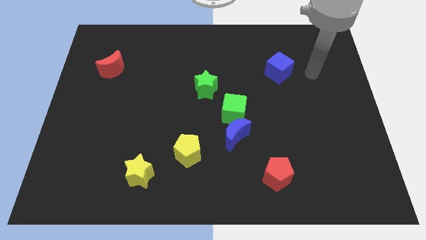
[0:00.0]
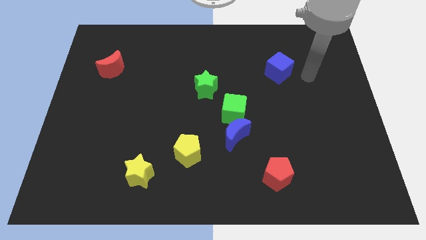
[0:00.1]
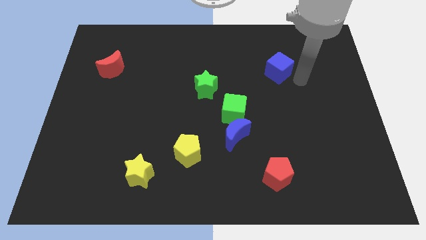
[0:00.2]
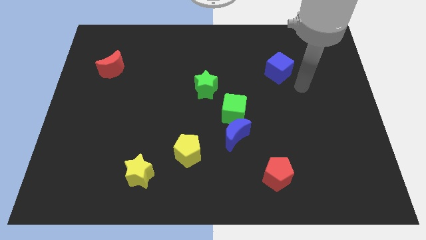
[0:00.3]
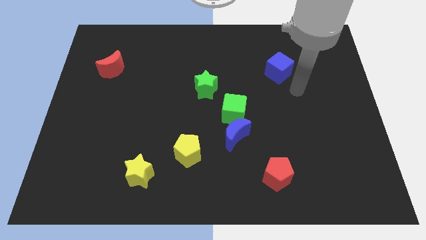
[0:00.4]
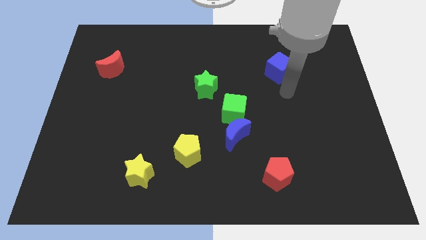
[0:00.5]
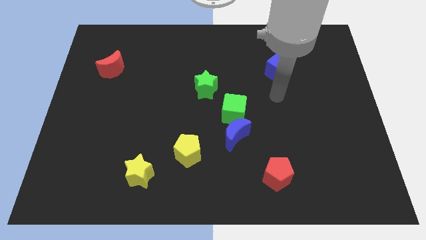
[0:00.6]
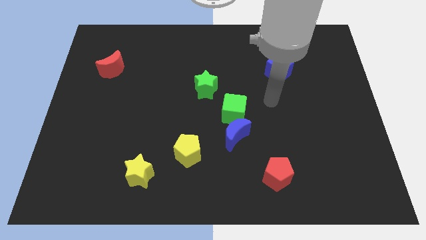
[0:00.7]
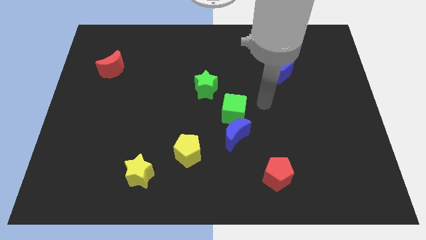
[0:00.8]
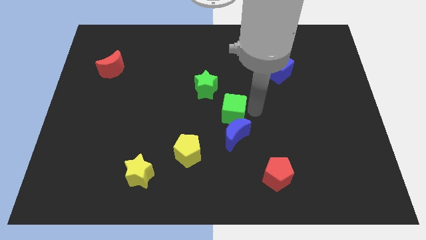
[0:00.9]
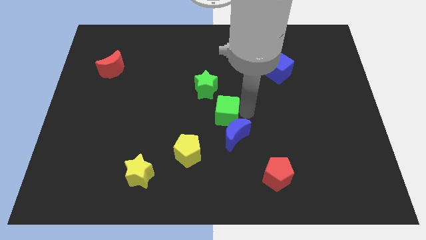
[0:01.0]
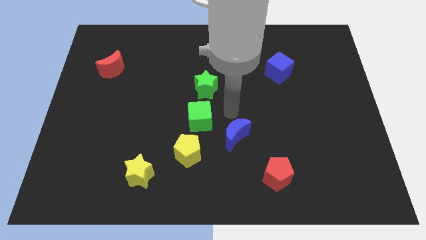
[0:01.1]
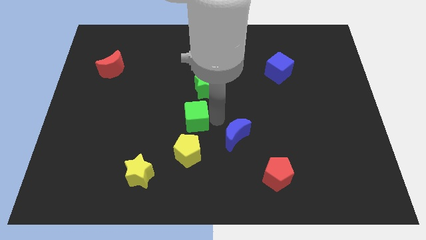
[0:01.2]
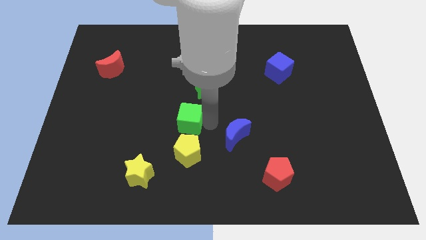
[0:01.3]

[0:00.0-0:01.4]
pull the blue moon apart from the green cube

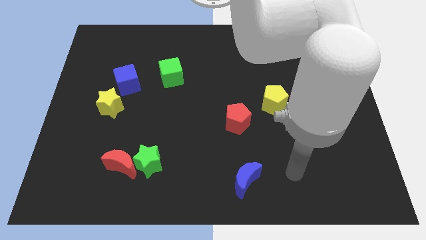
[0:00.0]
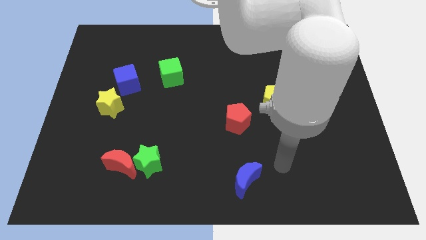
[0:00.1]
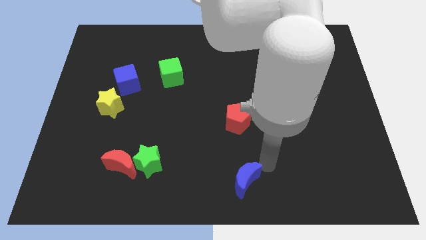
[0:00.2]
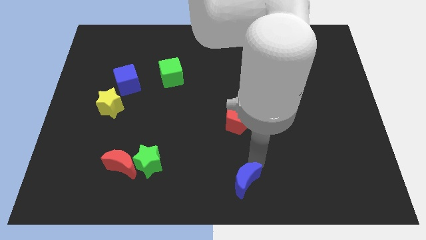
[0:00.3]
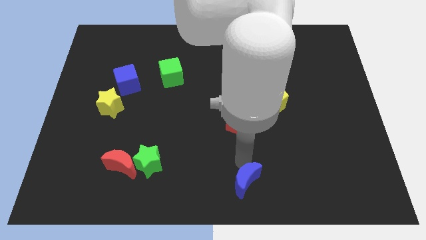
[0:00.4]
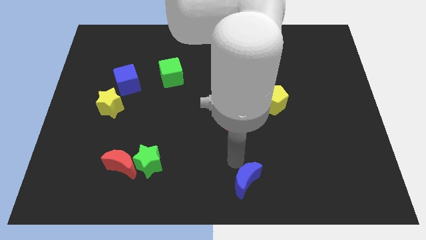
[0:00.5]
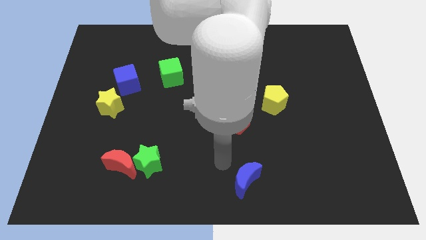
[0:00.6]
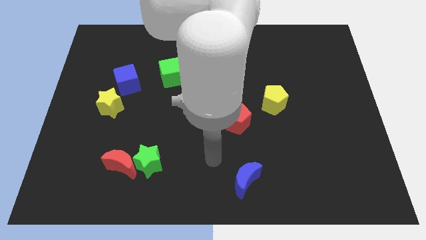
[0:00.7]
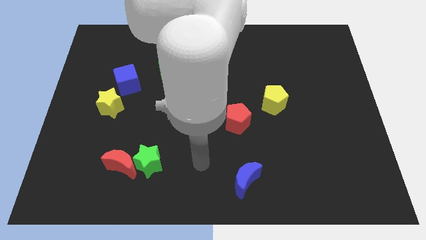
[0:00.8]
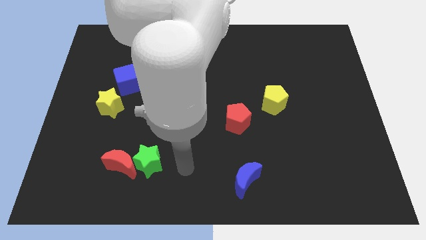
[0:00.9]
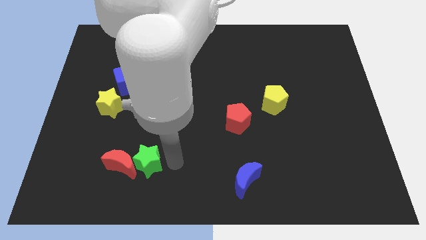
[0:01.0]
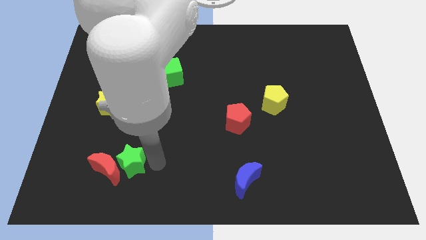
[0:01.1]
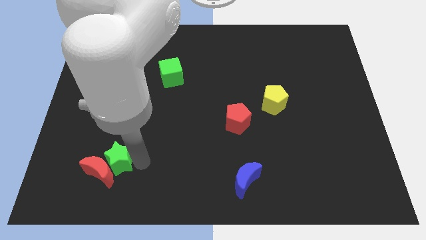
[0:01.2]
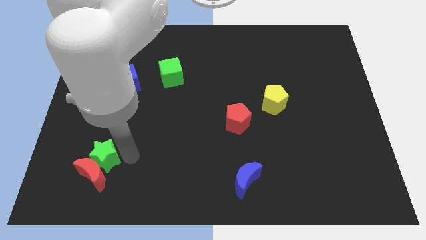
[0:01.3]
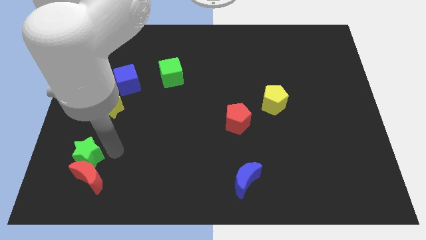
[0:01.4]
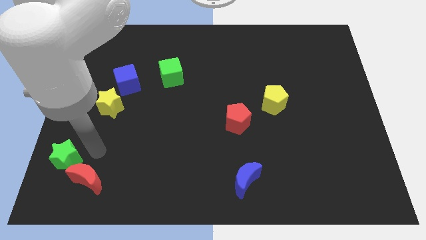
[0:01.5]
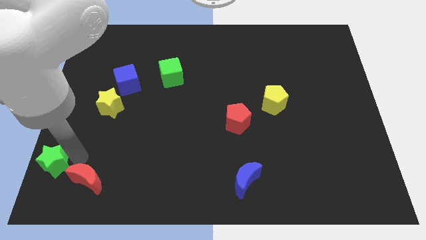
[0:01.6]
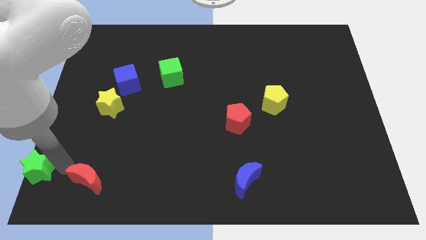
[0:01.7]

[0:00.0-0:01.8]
move the red moon away from the green star

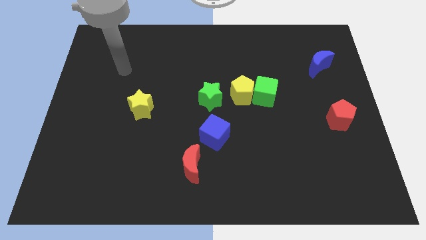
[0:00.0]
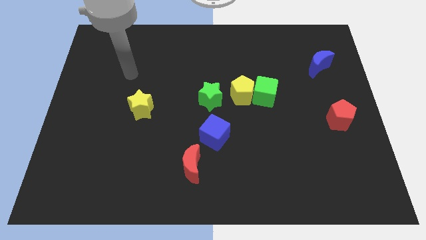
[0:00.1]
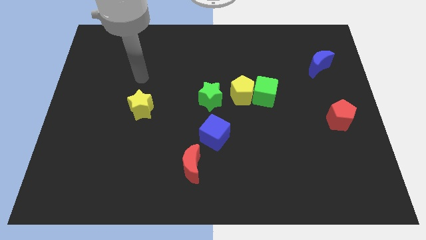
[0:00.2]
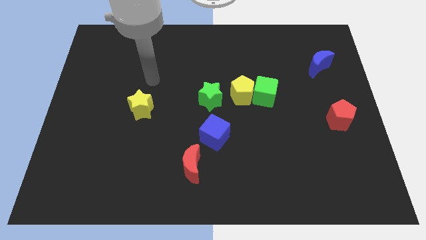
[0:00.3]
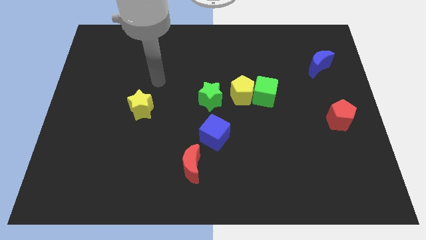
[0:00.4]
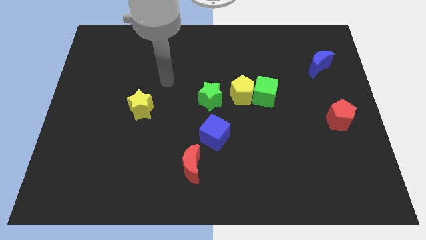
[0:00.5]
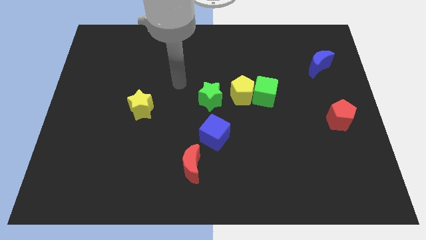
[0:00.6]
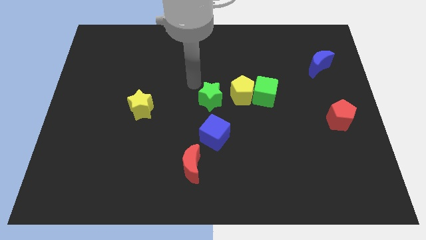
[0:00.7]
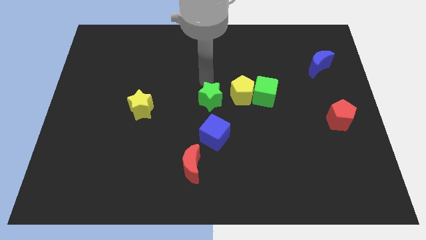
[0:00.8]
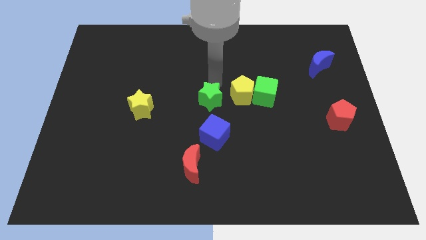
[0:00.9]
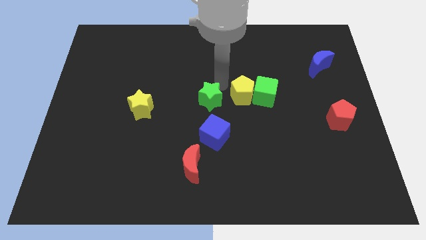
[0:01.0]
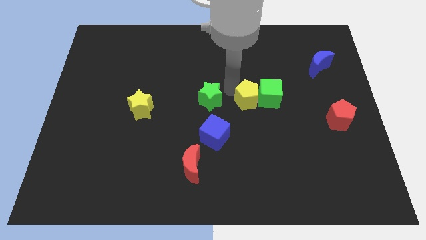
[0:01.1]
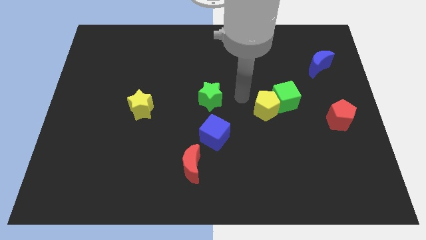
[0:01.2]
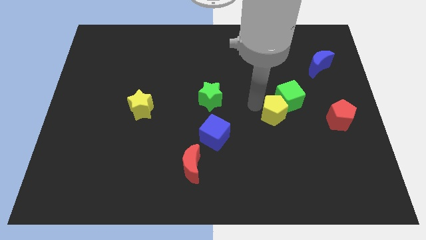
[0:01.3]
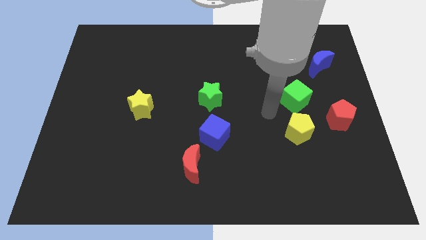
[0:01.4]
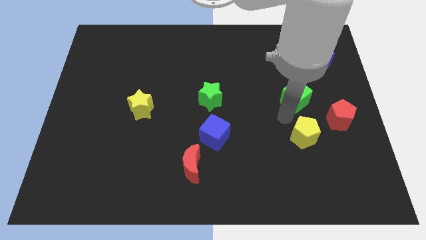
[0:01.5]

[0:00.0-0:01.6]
separate the green cube from the yellow pentagon

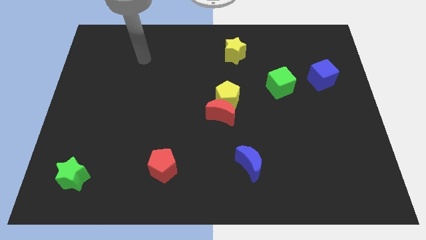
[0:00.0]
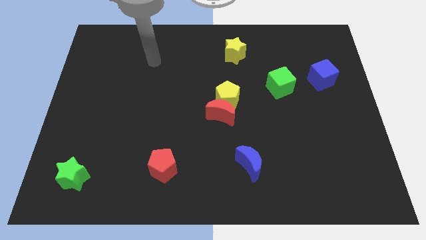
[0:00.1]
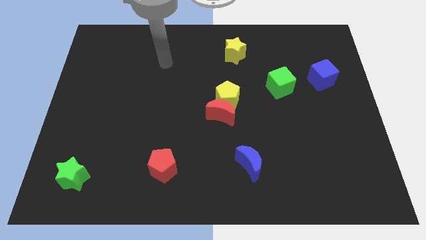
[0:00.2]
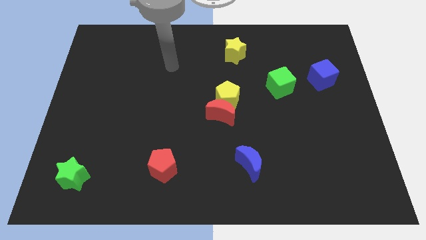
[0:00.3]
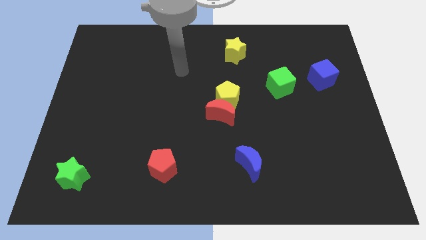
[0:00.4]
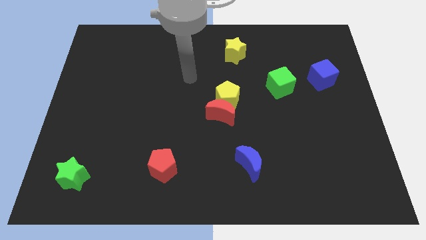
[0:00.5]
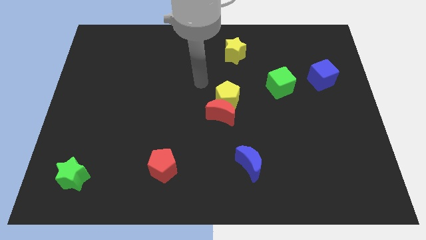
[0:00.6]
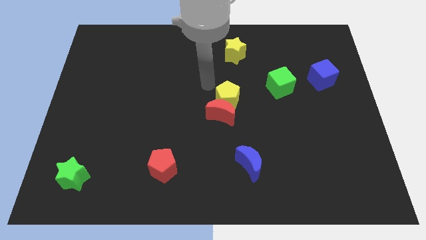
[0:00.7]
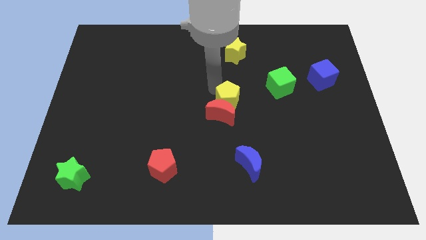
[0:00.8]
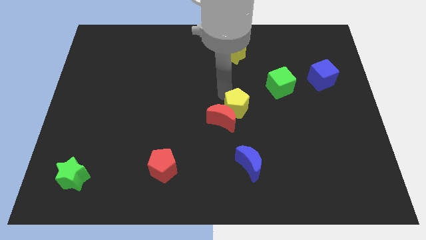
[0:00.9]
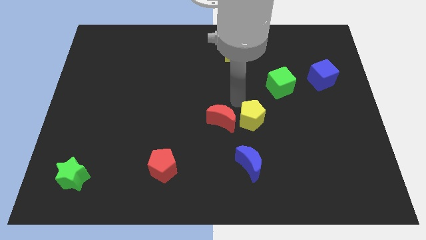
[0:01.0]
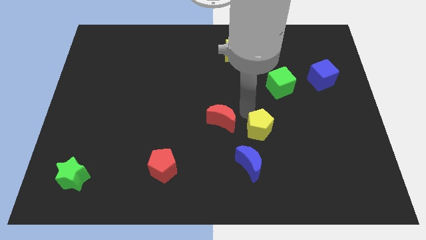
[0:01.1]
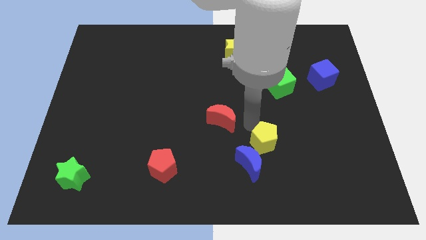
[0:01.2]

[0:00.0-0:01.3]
pull the red moon apart from the yellow pentagon

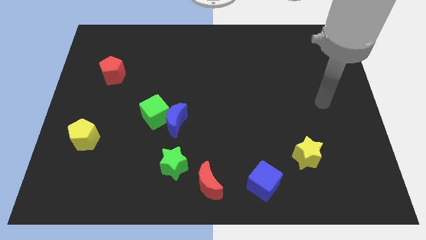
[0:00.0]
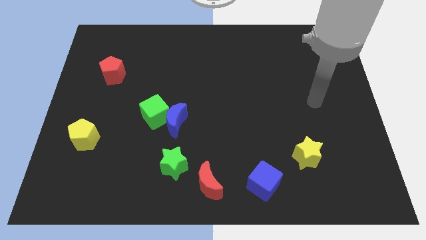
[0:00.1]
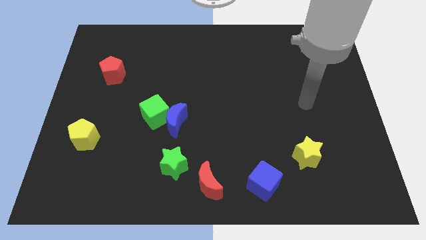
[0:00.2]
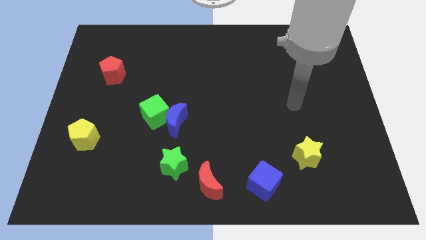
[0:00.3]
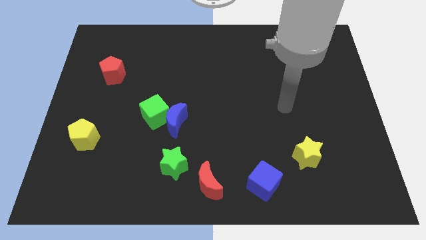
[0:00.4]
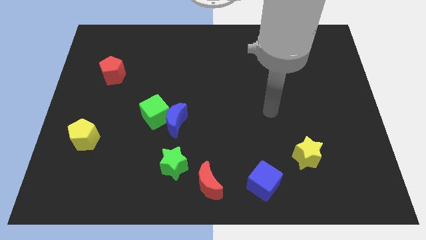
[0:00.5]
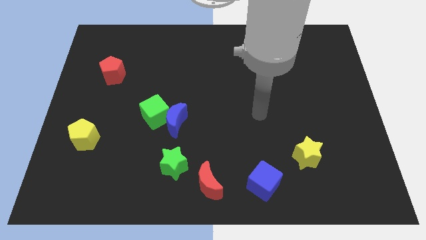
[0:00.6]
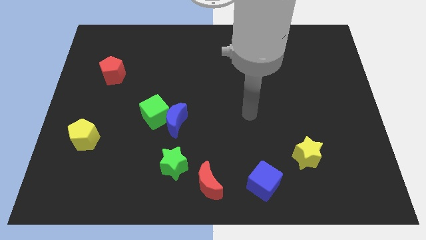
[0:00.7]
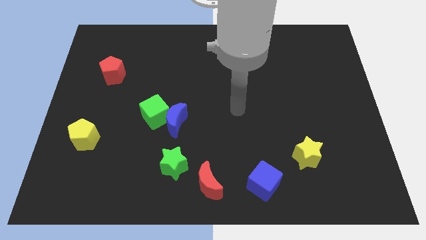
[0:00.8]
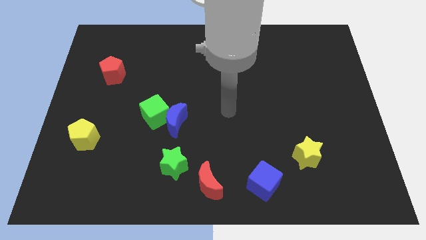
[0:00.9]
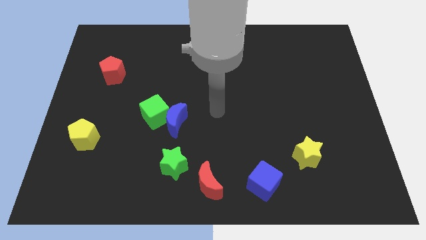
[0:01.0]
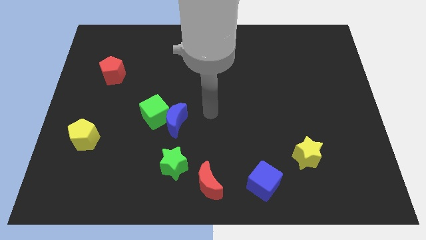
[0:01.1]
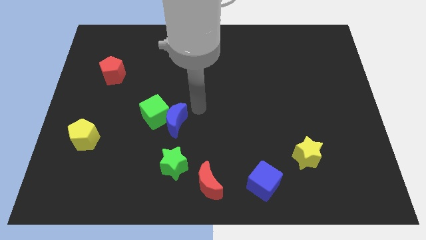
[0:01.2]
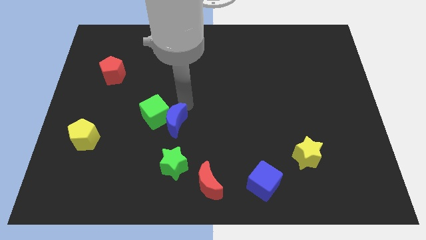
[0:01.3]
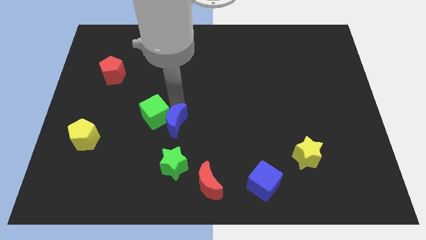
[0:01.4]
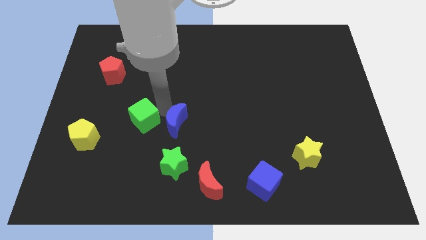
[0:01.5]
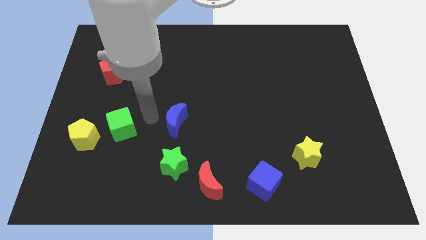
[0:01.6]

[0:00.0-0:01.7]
move the blue moon away from the green cube

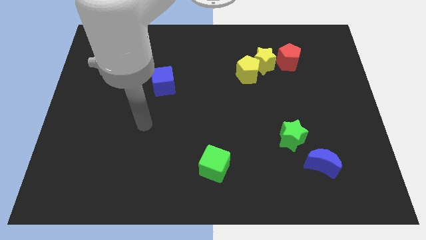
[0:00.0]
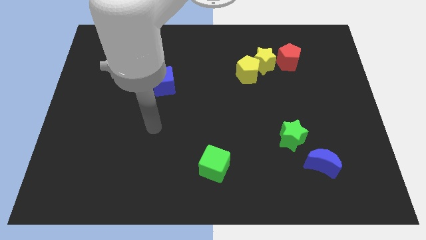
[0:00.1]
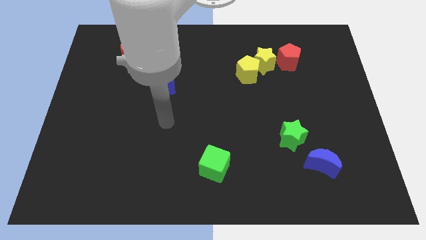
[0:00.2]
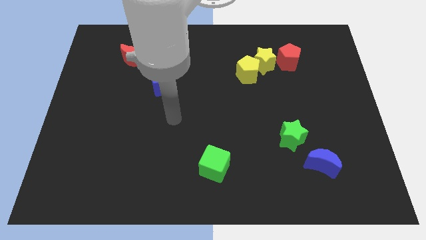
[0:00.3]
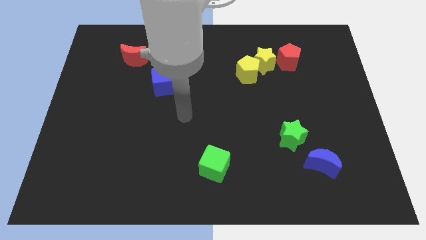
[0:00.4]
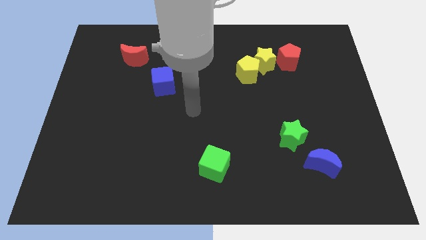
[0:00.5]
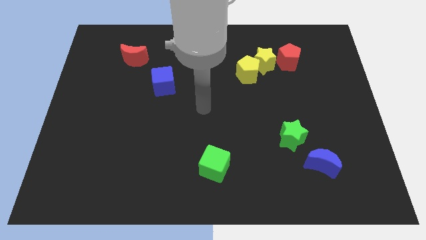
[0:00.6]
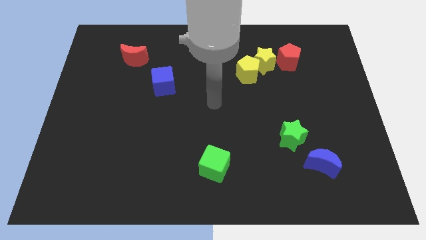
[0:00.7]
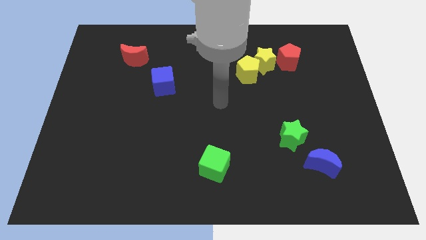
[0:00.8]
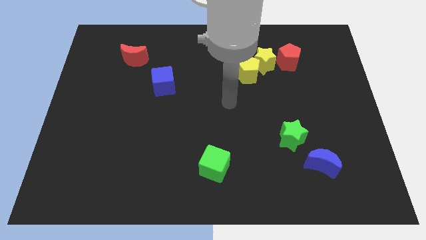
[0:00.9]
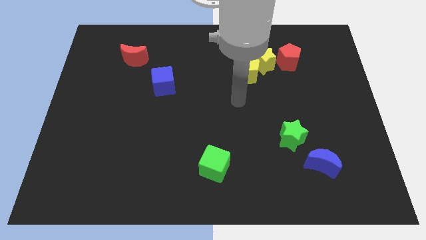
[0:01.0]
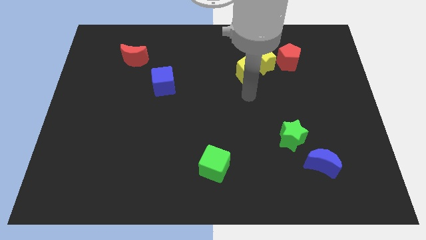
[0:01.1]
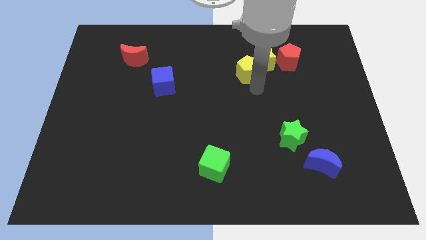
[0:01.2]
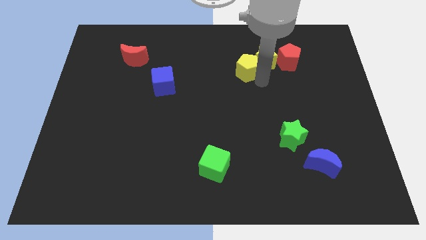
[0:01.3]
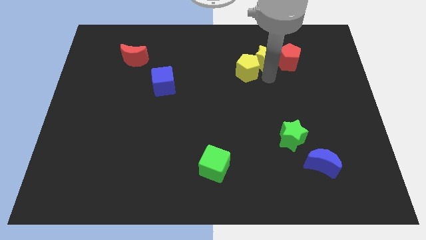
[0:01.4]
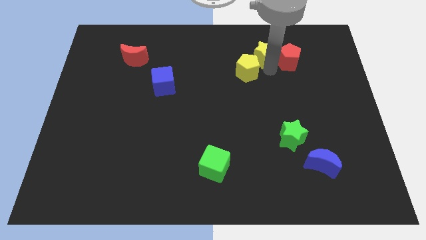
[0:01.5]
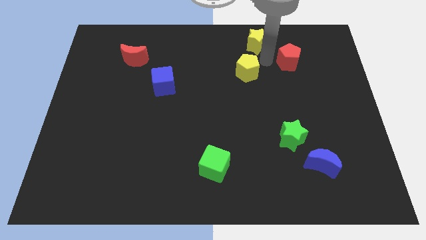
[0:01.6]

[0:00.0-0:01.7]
pull the yellow pentagon apart from the yellow star
